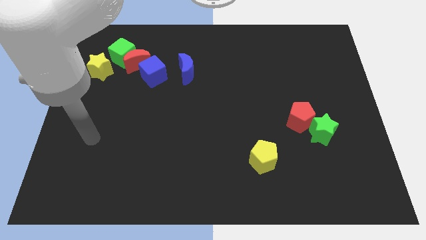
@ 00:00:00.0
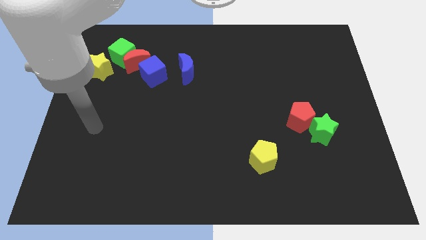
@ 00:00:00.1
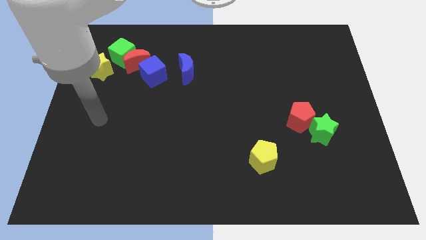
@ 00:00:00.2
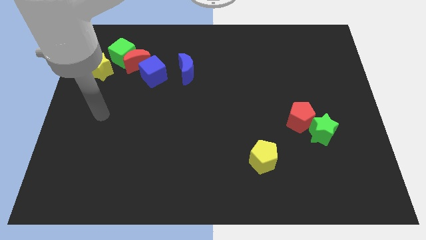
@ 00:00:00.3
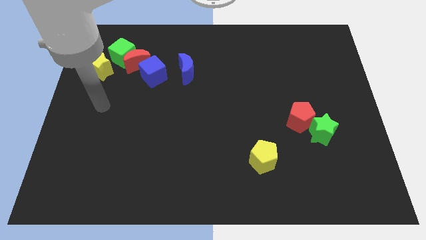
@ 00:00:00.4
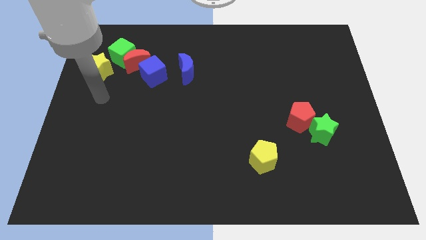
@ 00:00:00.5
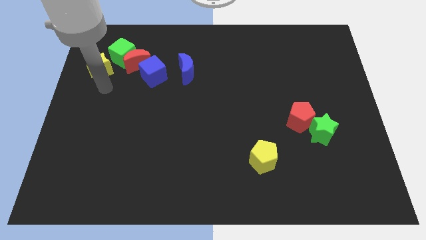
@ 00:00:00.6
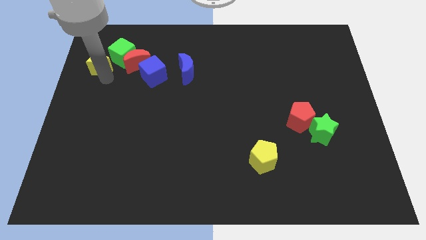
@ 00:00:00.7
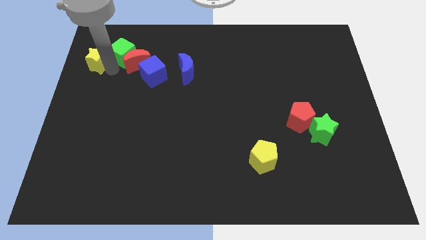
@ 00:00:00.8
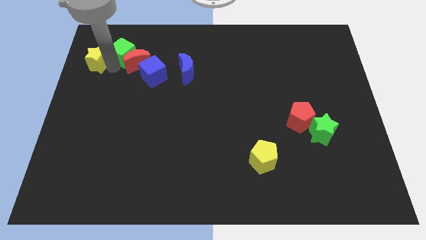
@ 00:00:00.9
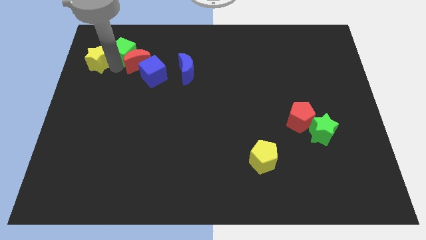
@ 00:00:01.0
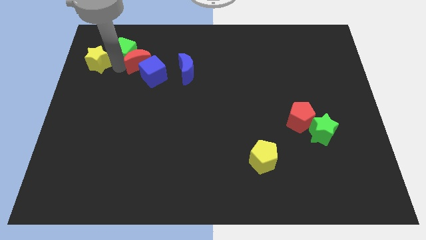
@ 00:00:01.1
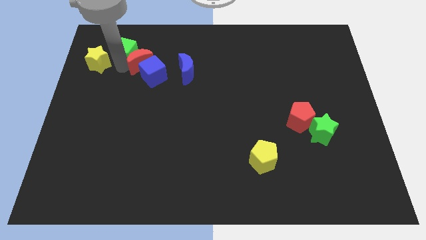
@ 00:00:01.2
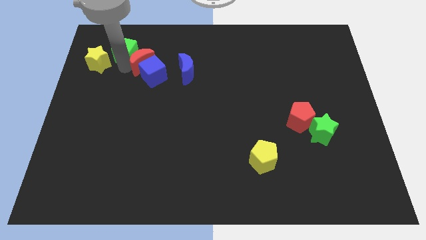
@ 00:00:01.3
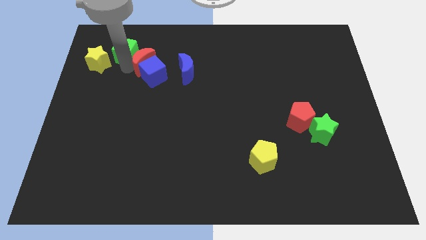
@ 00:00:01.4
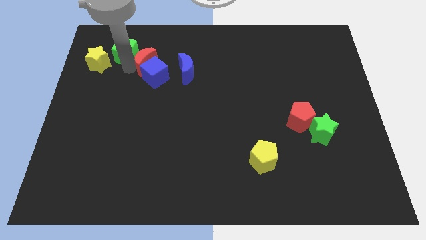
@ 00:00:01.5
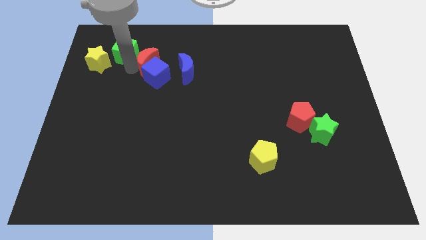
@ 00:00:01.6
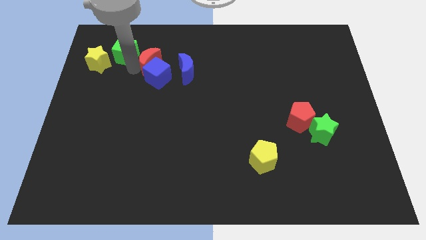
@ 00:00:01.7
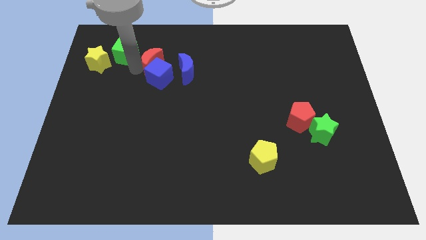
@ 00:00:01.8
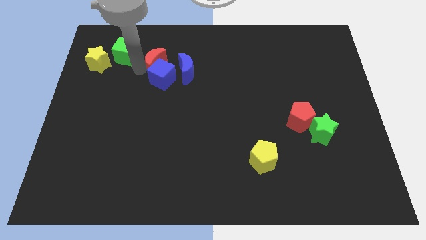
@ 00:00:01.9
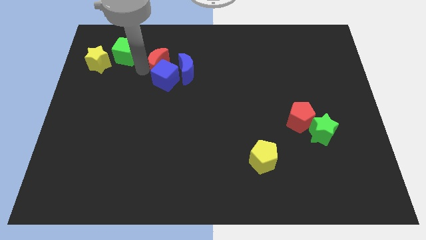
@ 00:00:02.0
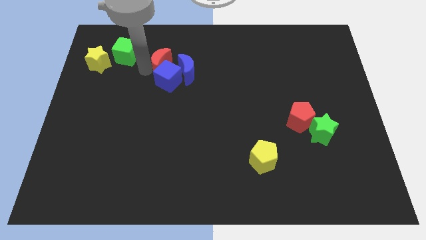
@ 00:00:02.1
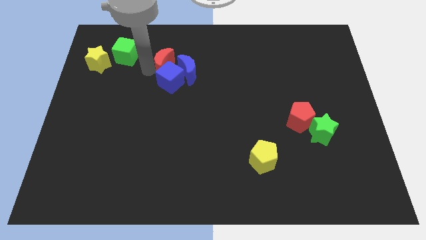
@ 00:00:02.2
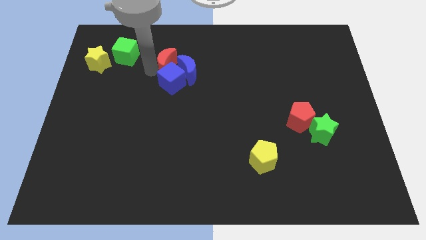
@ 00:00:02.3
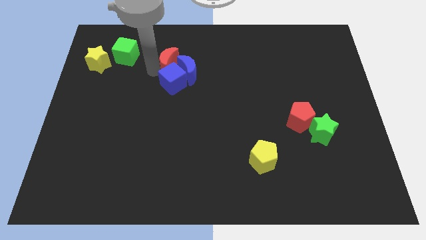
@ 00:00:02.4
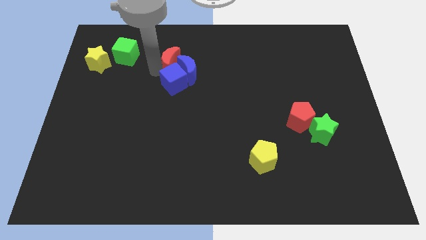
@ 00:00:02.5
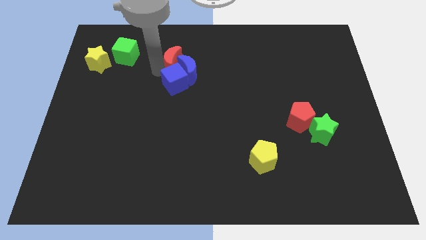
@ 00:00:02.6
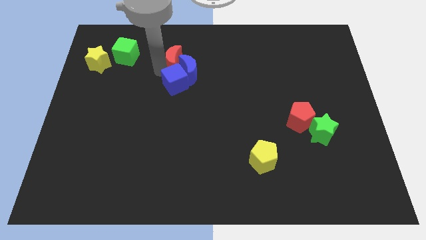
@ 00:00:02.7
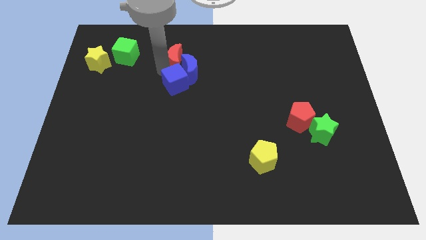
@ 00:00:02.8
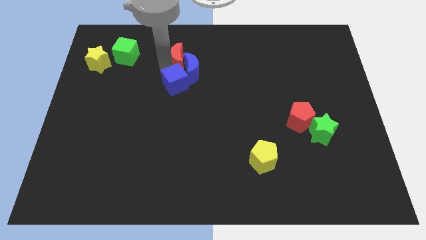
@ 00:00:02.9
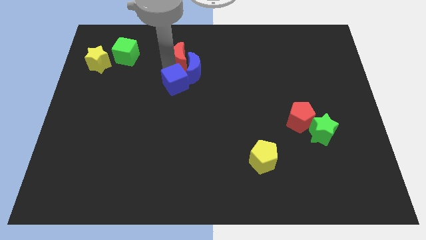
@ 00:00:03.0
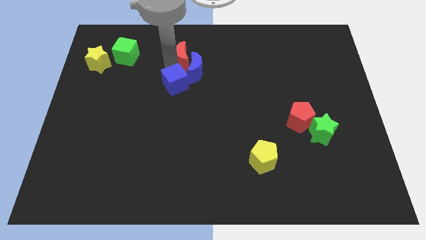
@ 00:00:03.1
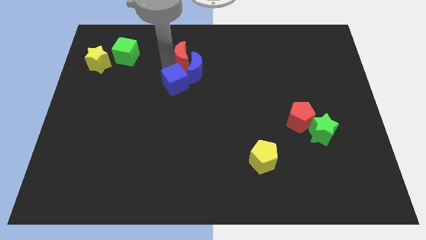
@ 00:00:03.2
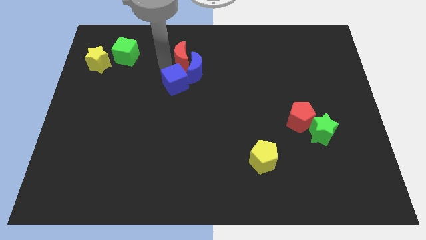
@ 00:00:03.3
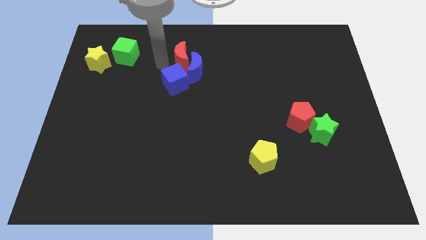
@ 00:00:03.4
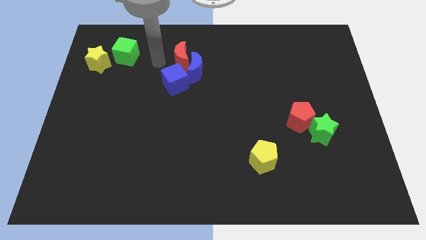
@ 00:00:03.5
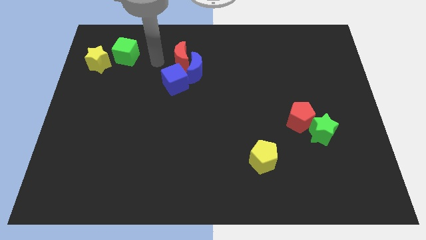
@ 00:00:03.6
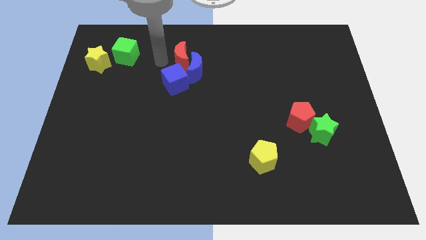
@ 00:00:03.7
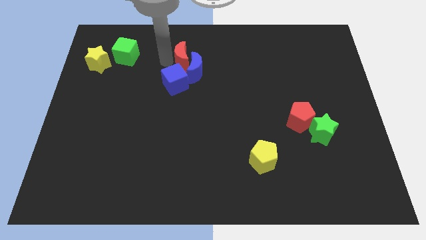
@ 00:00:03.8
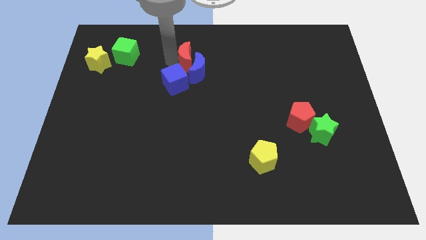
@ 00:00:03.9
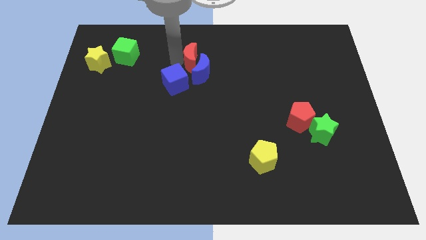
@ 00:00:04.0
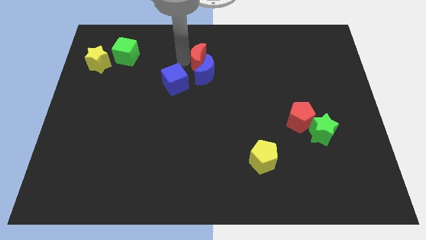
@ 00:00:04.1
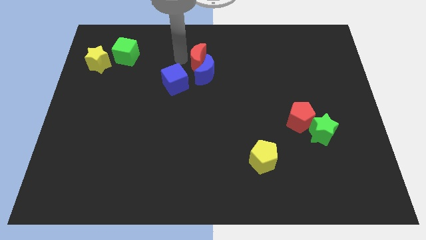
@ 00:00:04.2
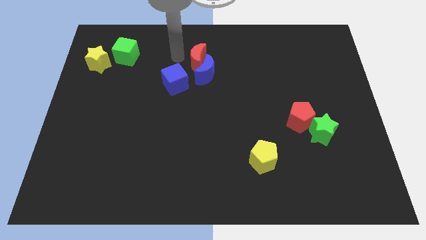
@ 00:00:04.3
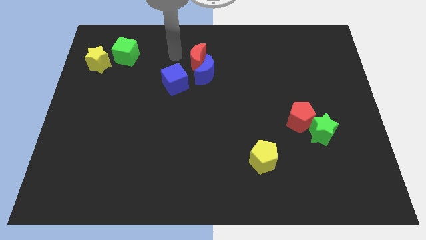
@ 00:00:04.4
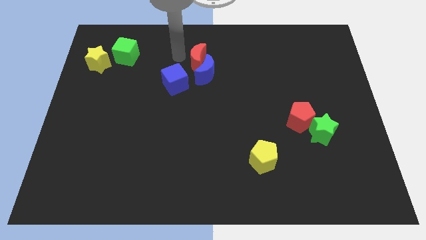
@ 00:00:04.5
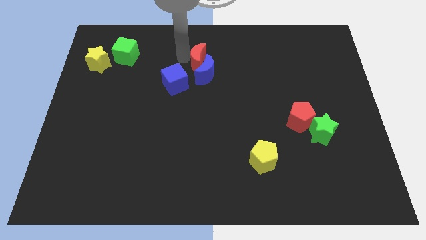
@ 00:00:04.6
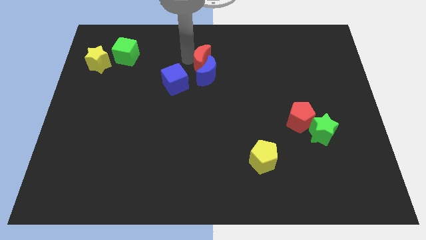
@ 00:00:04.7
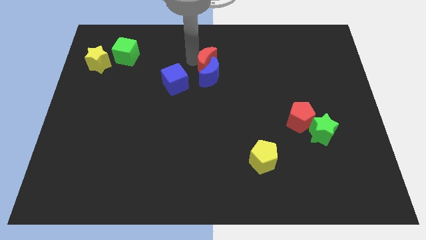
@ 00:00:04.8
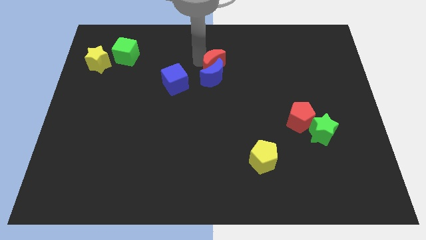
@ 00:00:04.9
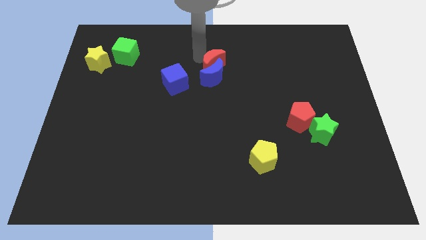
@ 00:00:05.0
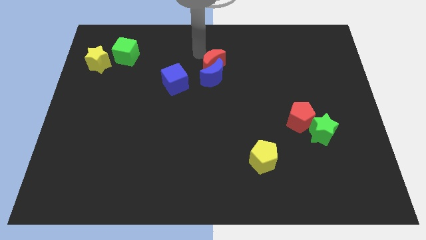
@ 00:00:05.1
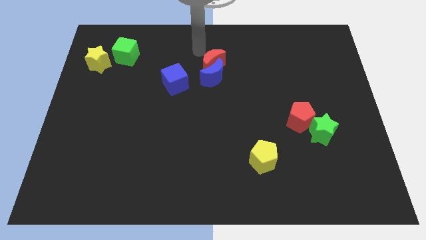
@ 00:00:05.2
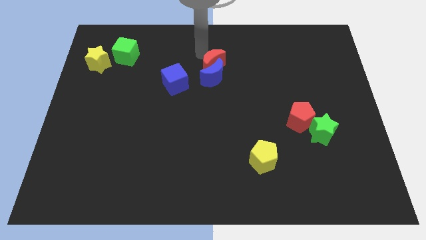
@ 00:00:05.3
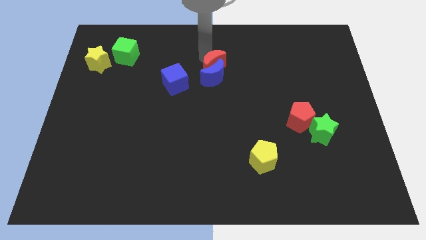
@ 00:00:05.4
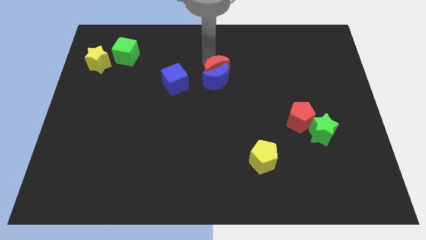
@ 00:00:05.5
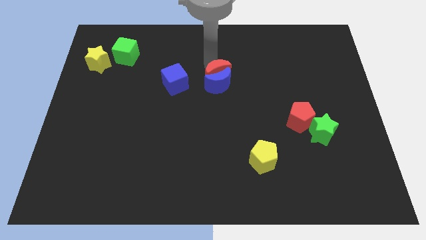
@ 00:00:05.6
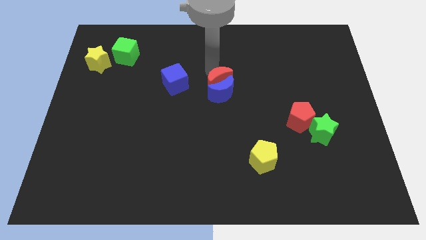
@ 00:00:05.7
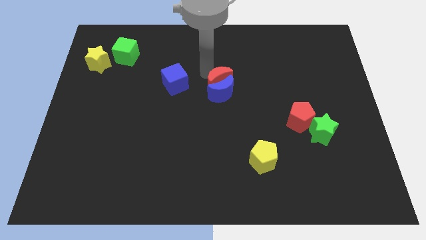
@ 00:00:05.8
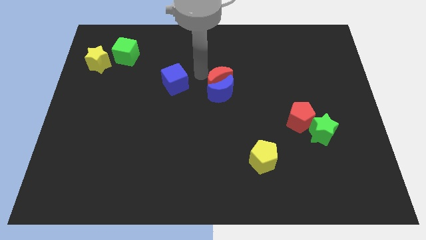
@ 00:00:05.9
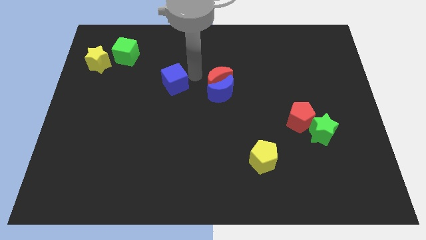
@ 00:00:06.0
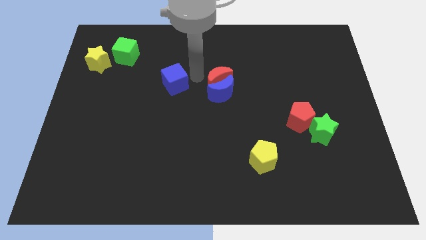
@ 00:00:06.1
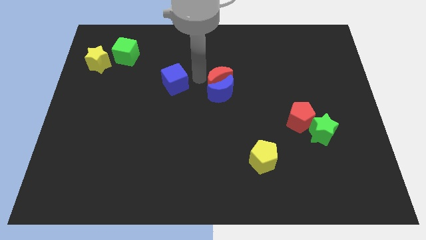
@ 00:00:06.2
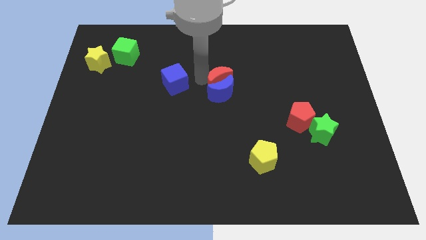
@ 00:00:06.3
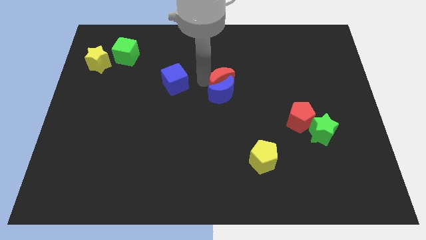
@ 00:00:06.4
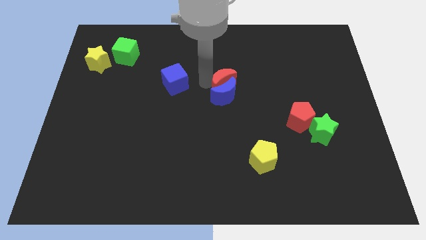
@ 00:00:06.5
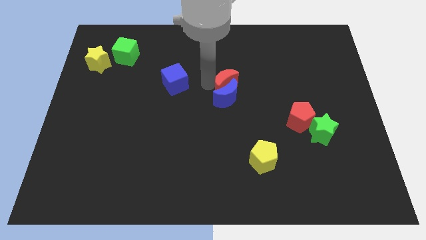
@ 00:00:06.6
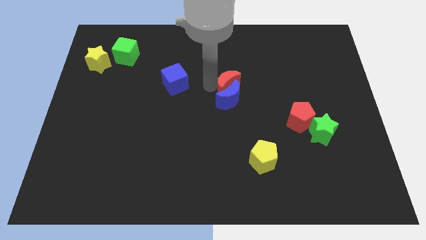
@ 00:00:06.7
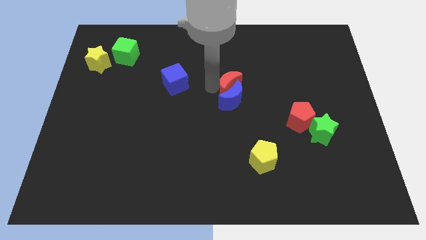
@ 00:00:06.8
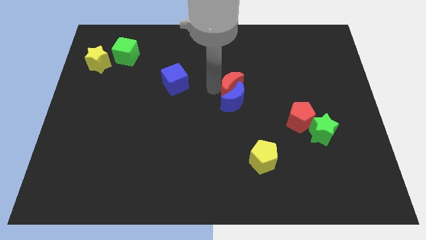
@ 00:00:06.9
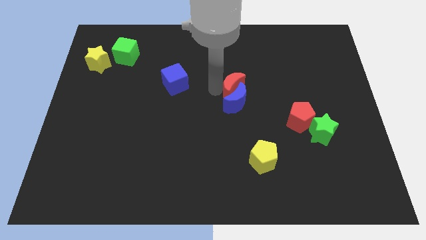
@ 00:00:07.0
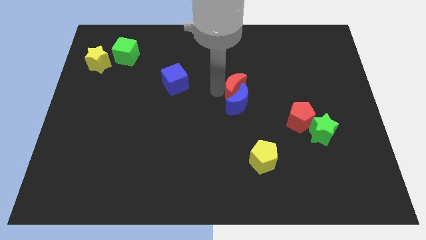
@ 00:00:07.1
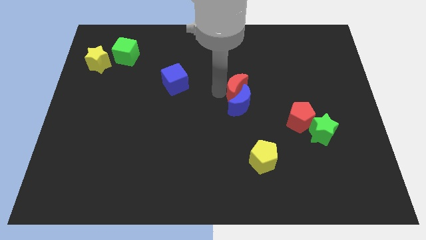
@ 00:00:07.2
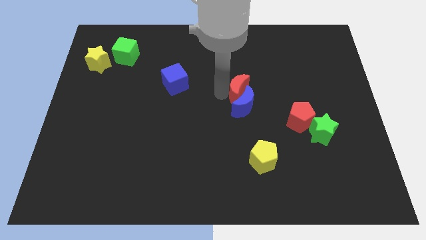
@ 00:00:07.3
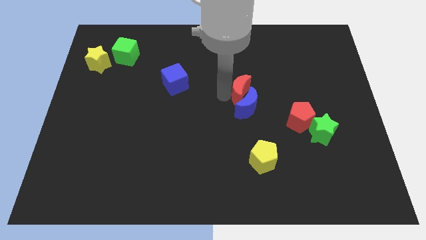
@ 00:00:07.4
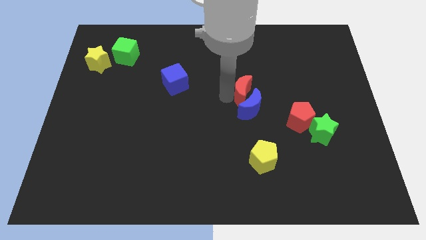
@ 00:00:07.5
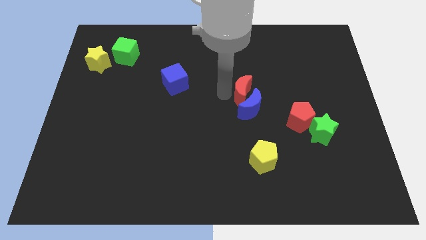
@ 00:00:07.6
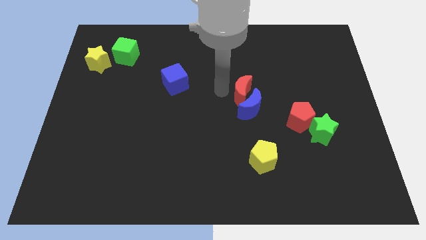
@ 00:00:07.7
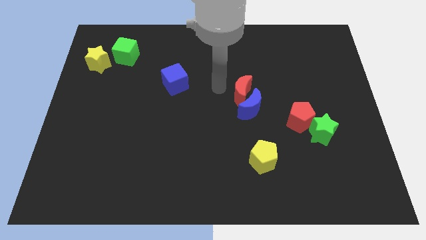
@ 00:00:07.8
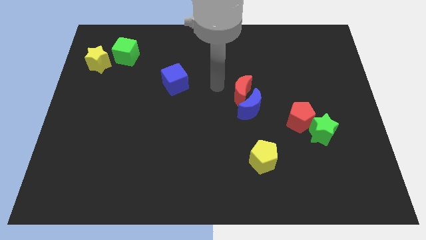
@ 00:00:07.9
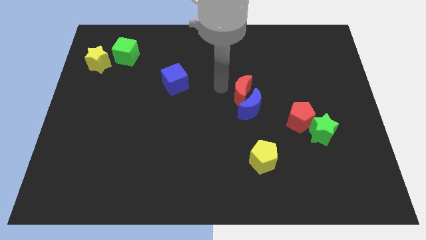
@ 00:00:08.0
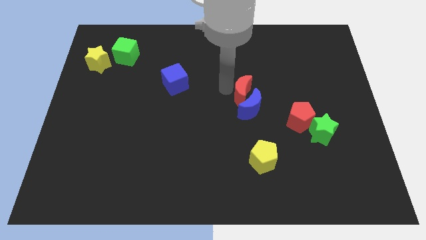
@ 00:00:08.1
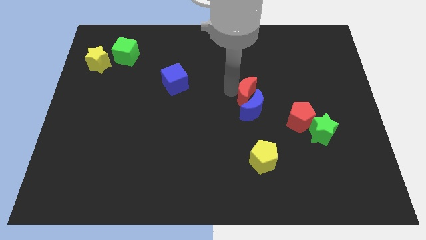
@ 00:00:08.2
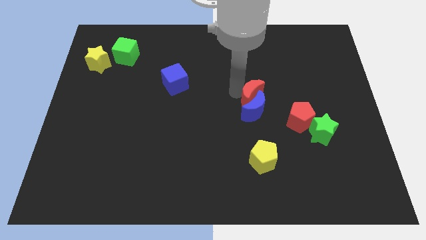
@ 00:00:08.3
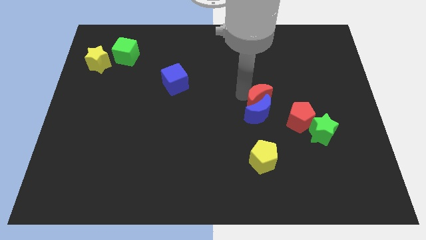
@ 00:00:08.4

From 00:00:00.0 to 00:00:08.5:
push the red moon diagonally up and to the left of the red pentagon
